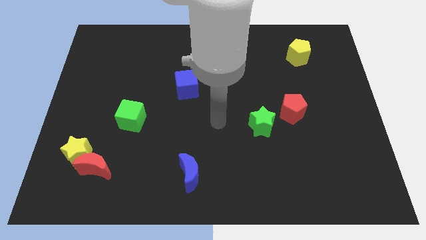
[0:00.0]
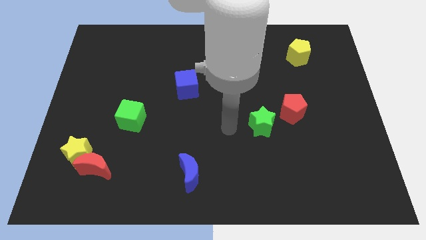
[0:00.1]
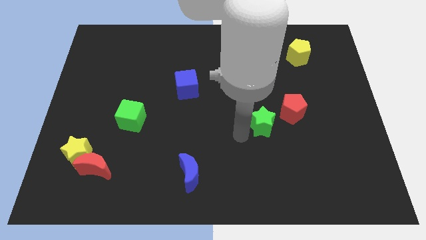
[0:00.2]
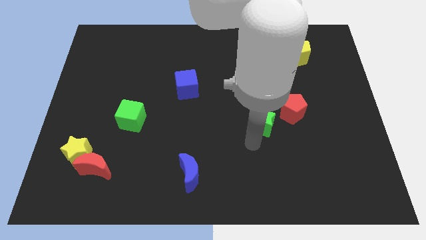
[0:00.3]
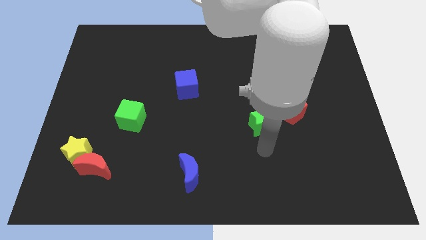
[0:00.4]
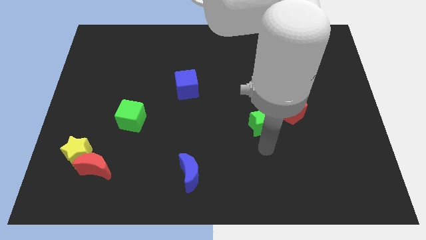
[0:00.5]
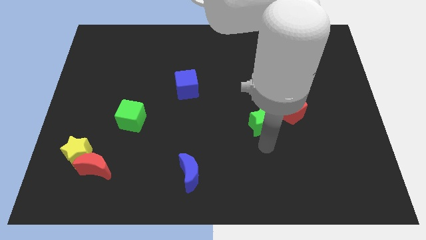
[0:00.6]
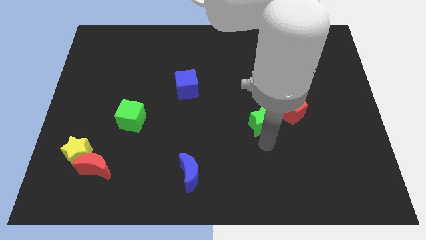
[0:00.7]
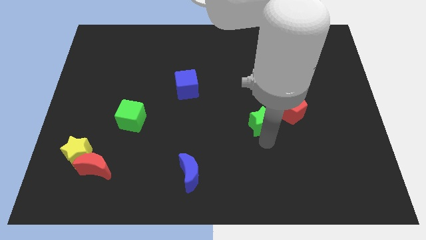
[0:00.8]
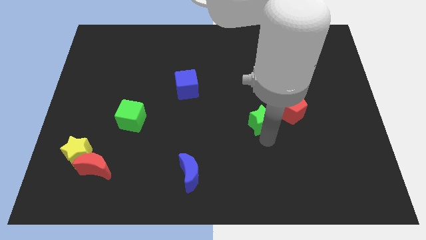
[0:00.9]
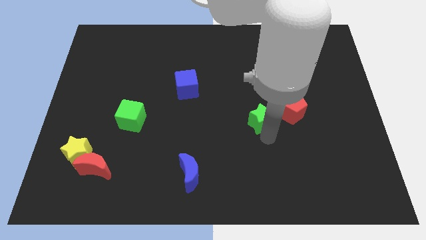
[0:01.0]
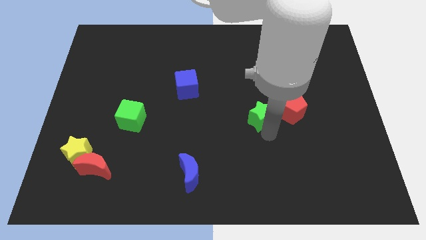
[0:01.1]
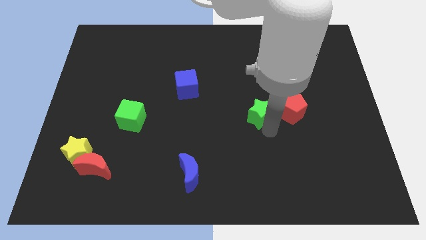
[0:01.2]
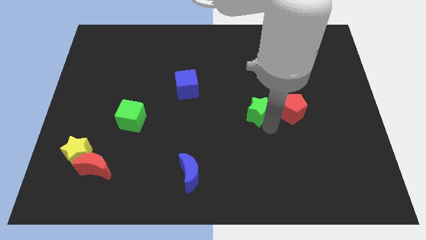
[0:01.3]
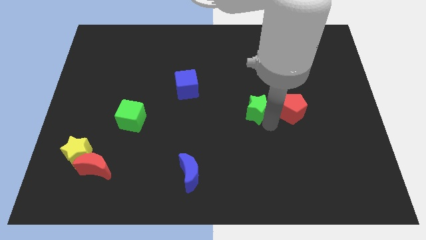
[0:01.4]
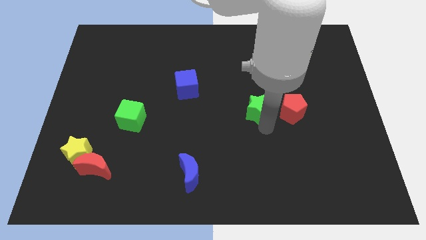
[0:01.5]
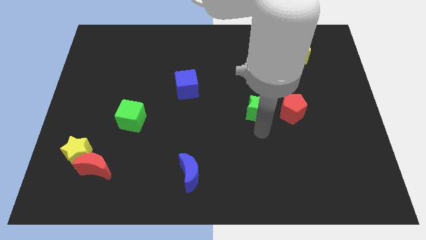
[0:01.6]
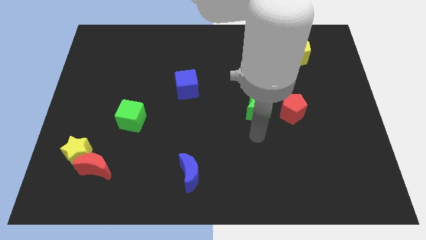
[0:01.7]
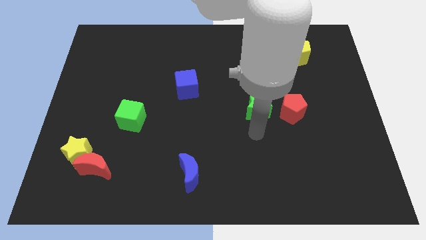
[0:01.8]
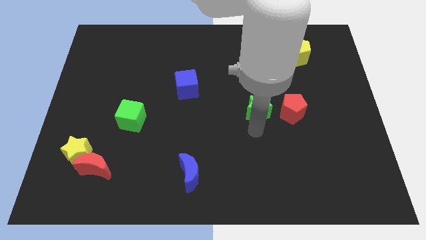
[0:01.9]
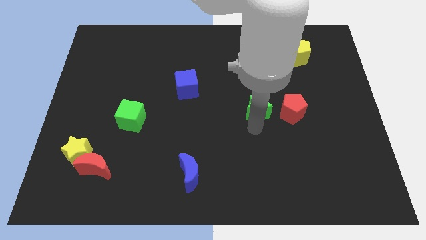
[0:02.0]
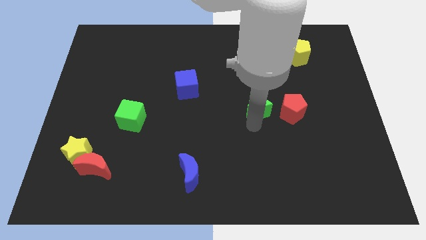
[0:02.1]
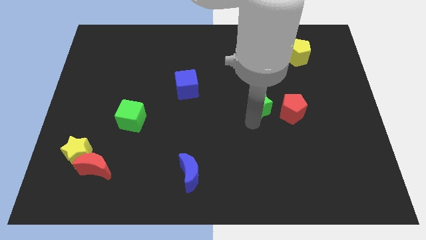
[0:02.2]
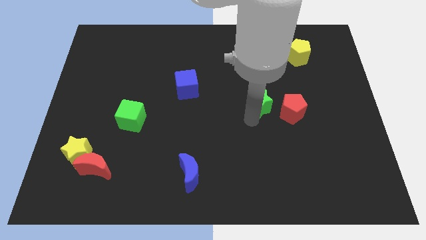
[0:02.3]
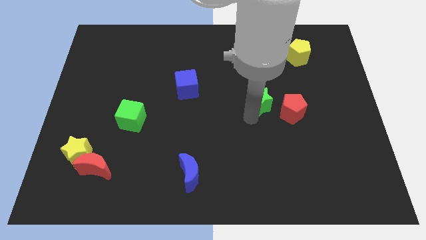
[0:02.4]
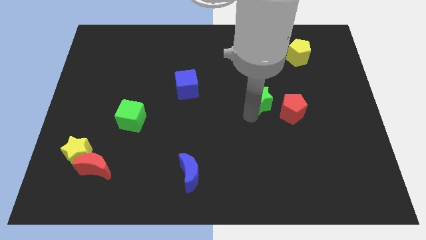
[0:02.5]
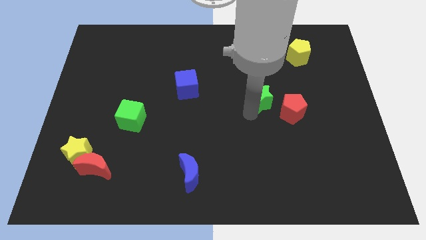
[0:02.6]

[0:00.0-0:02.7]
move the green star up a bit

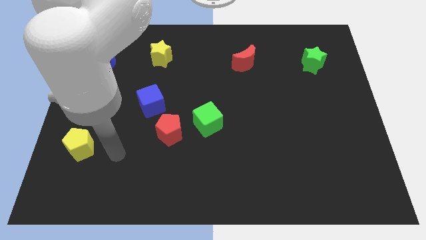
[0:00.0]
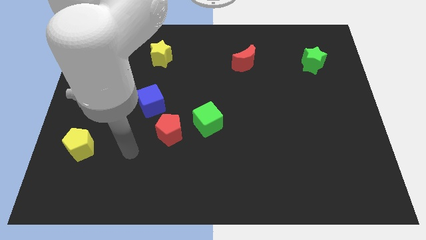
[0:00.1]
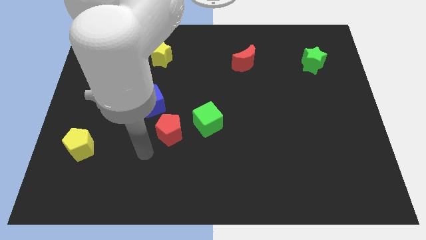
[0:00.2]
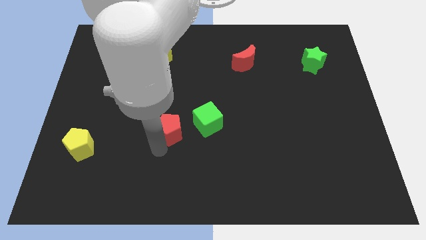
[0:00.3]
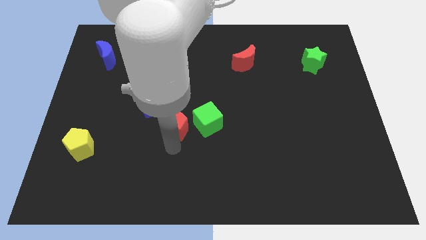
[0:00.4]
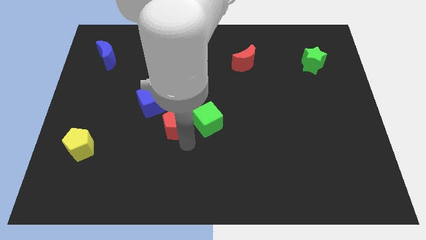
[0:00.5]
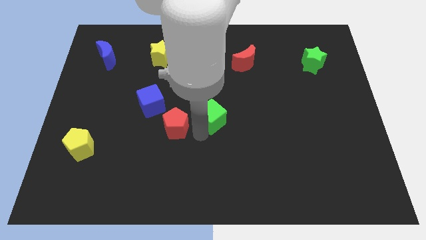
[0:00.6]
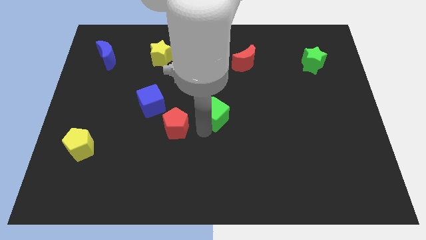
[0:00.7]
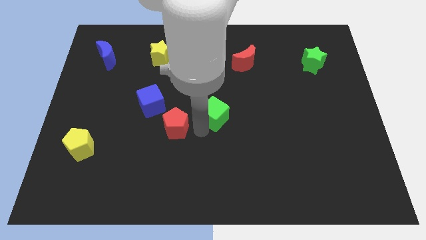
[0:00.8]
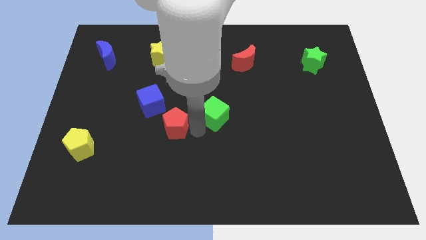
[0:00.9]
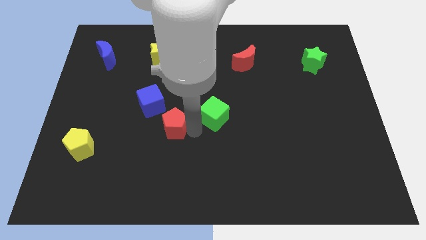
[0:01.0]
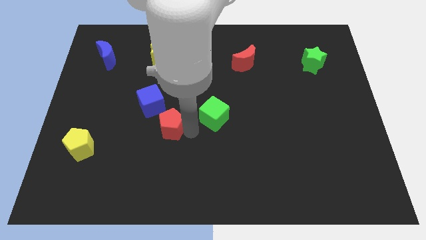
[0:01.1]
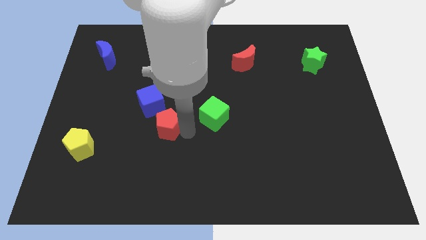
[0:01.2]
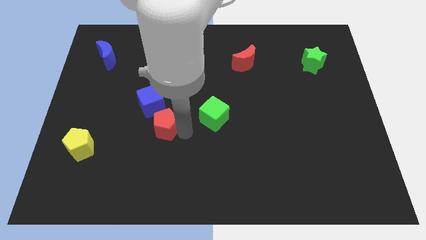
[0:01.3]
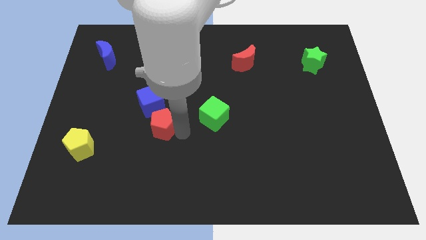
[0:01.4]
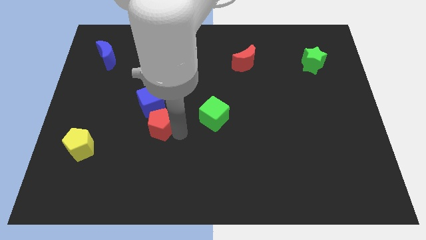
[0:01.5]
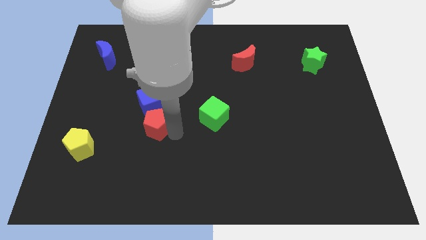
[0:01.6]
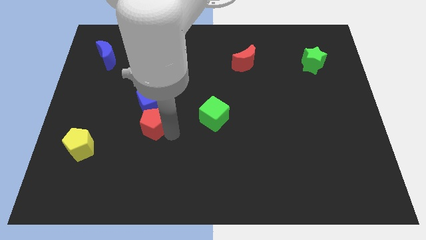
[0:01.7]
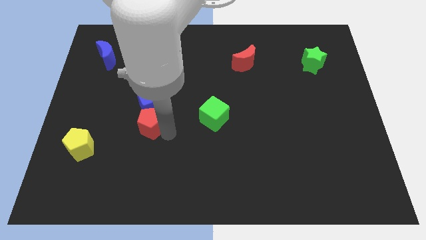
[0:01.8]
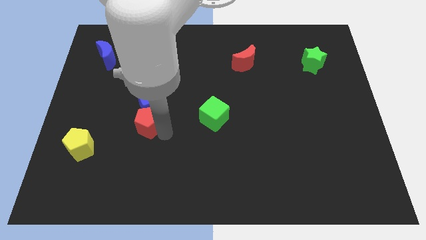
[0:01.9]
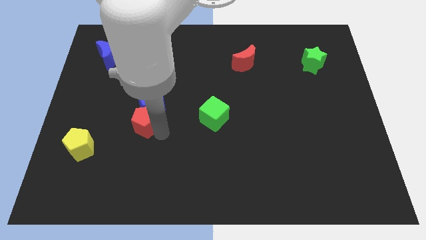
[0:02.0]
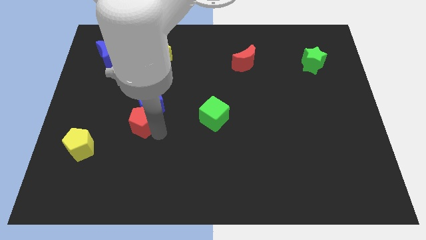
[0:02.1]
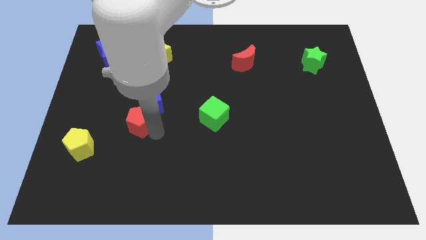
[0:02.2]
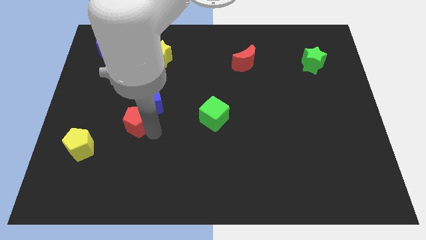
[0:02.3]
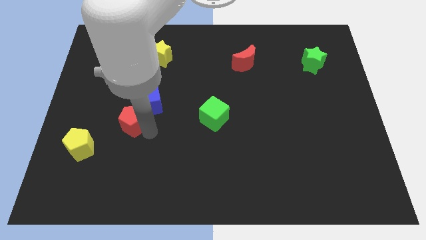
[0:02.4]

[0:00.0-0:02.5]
slide the red pentagon a little bit up and left diagonally

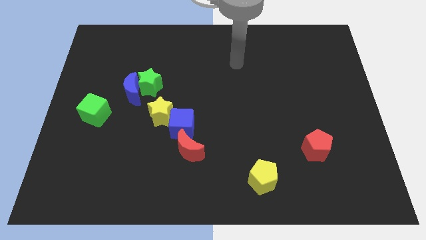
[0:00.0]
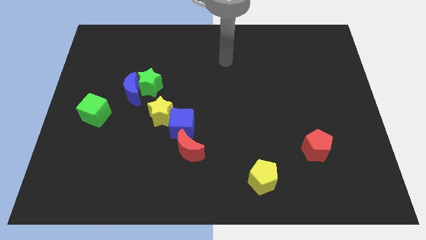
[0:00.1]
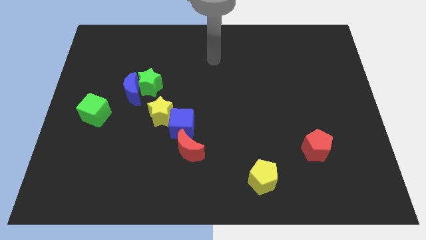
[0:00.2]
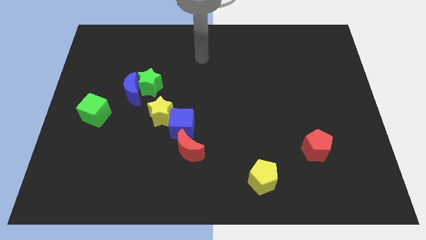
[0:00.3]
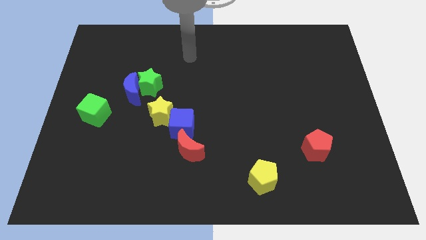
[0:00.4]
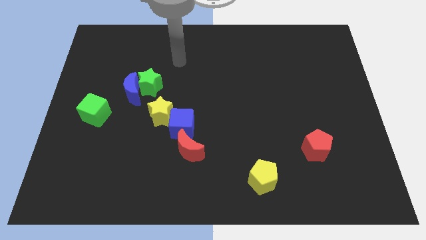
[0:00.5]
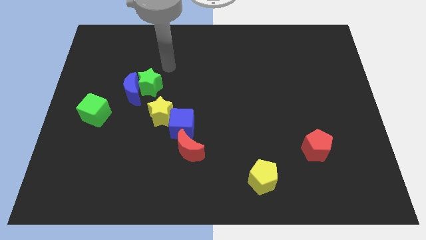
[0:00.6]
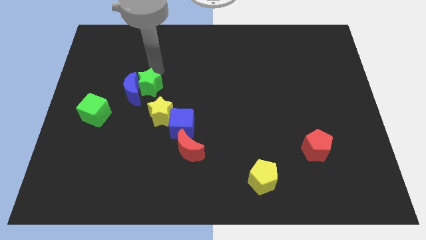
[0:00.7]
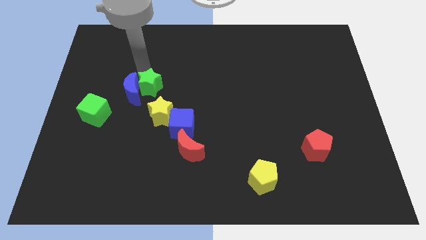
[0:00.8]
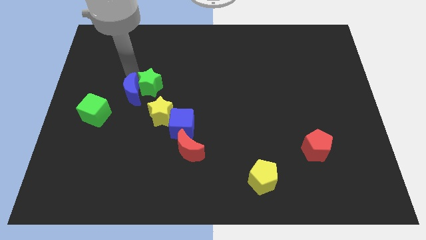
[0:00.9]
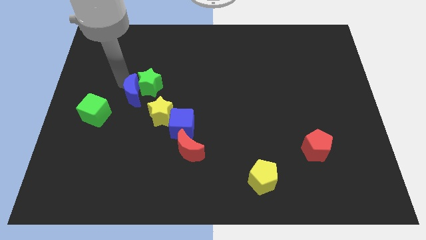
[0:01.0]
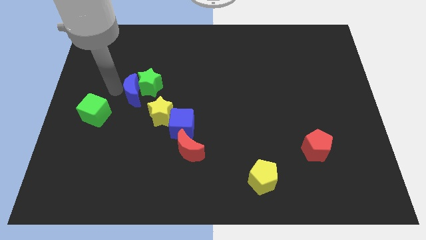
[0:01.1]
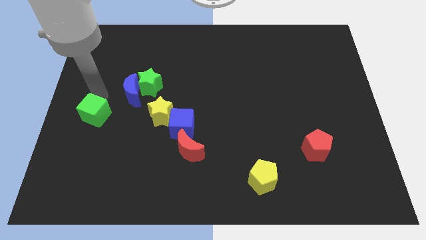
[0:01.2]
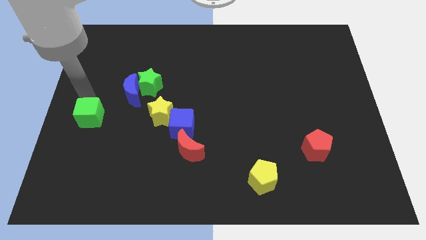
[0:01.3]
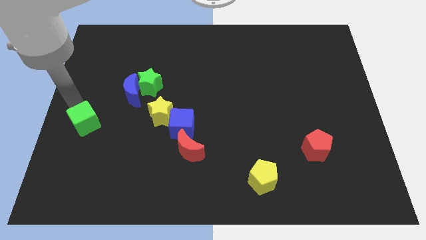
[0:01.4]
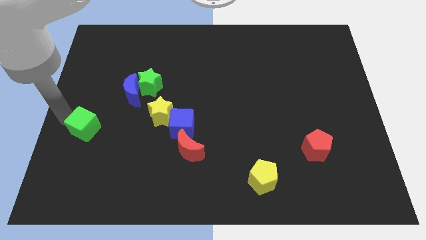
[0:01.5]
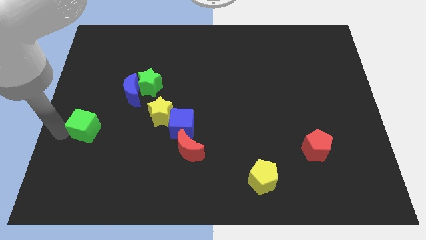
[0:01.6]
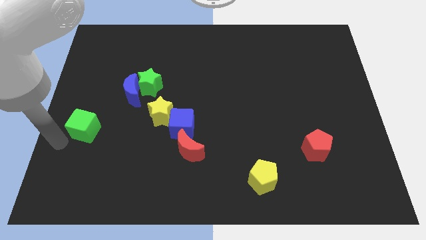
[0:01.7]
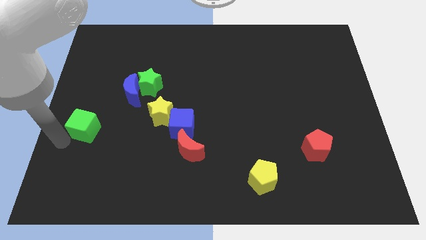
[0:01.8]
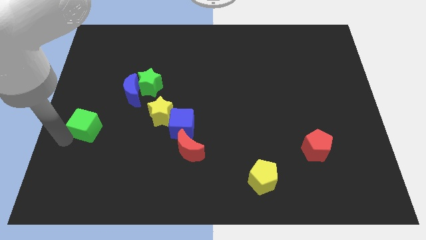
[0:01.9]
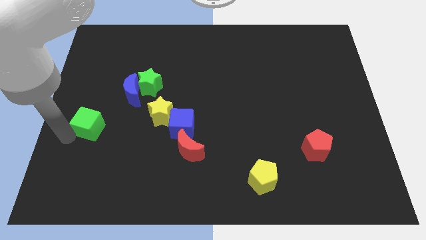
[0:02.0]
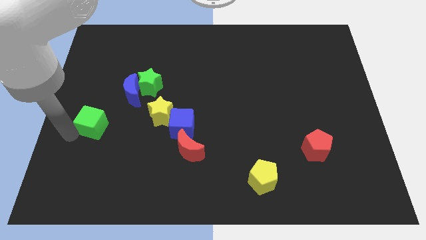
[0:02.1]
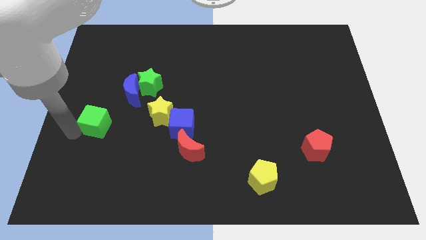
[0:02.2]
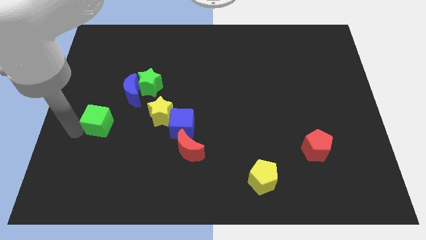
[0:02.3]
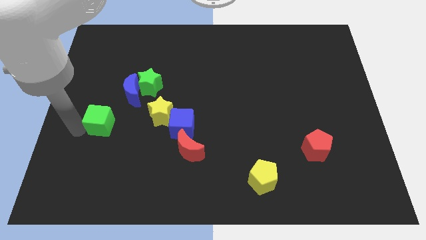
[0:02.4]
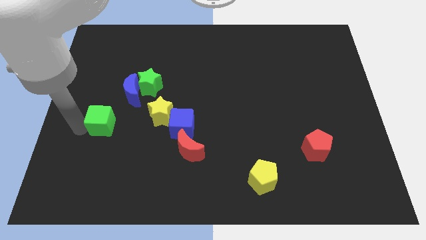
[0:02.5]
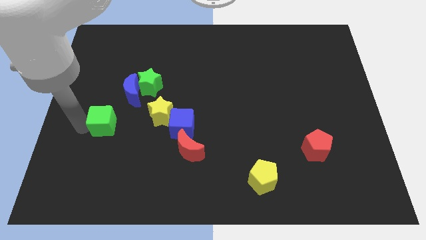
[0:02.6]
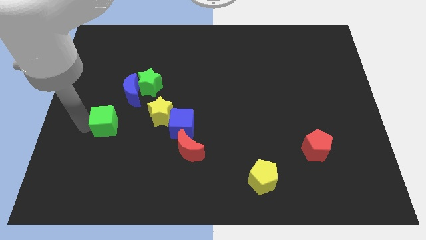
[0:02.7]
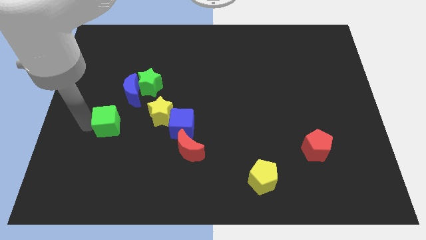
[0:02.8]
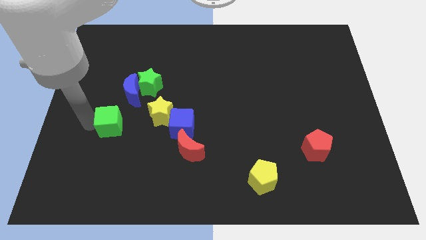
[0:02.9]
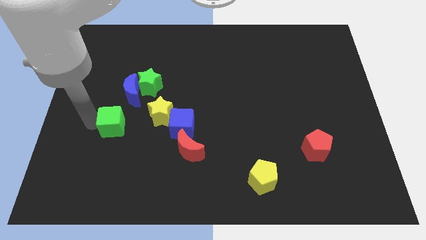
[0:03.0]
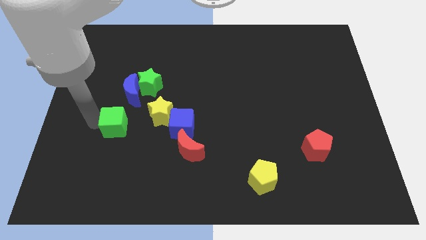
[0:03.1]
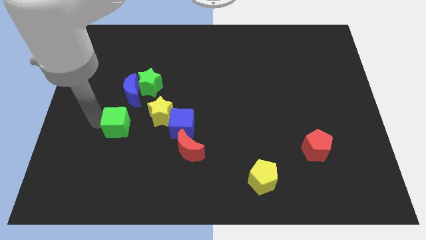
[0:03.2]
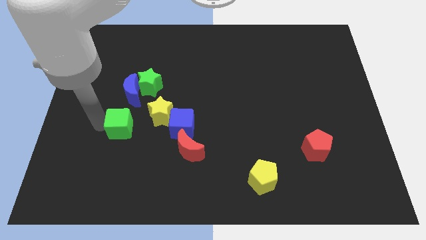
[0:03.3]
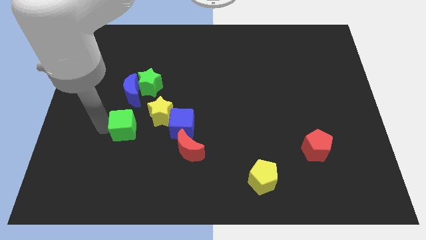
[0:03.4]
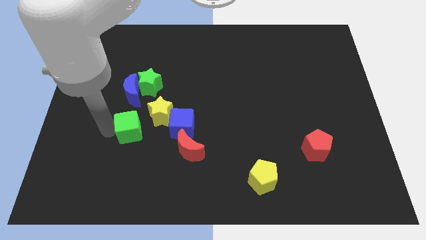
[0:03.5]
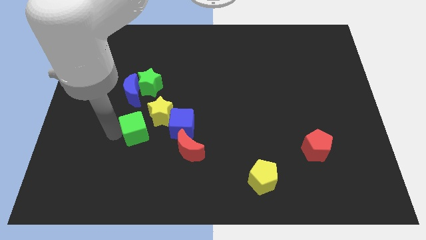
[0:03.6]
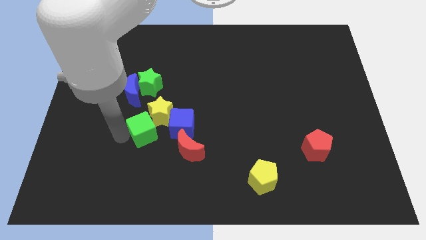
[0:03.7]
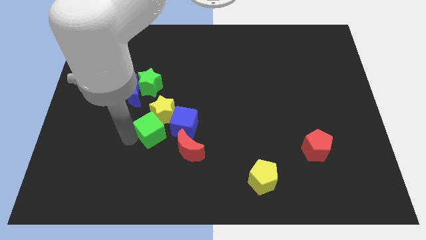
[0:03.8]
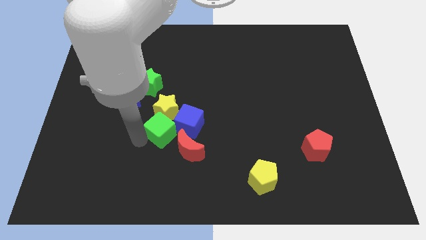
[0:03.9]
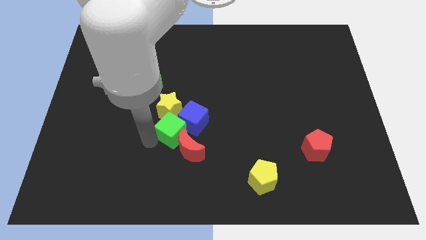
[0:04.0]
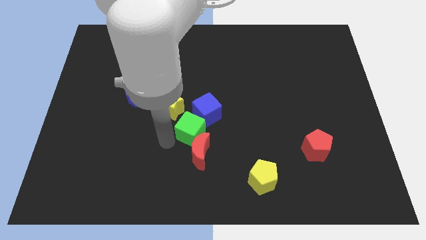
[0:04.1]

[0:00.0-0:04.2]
slide the green cube to the right
